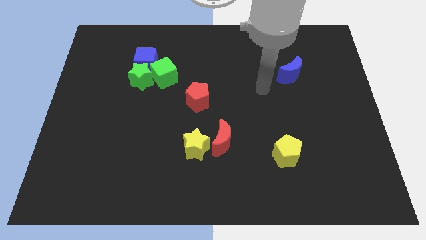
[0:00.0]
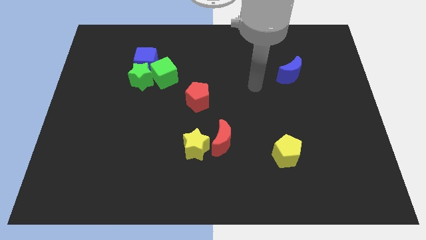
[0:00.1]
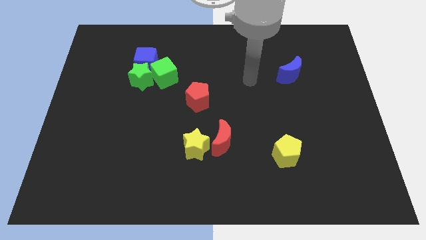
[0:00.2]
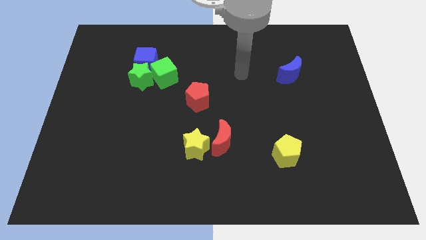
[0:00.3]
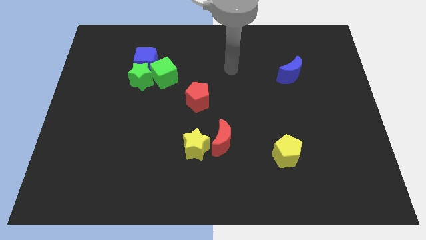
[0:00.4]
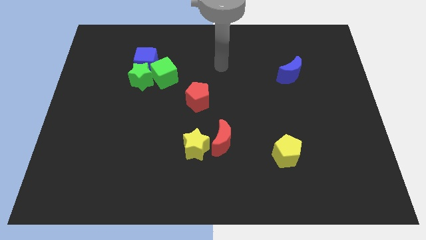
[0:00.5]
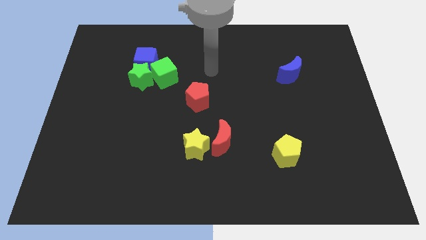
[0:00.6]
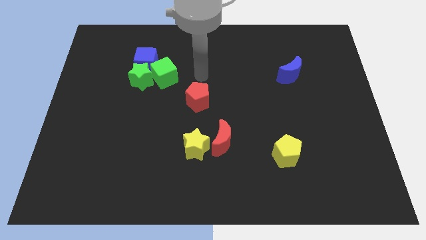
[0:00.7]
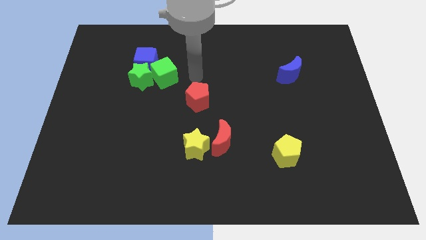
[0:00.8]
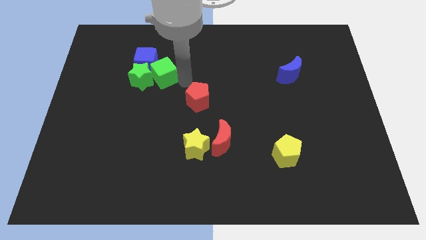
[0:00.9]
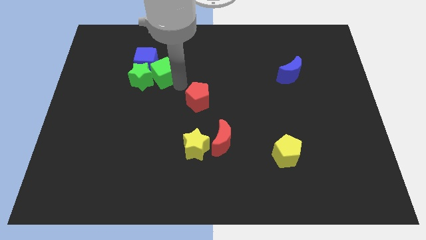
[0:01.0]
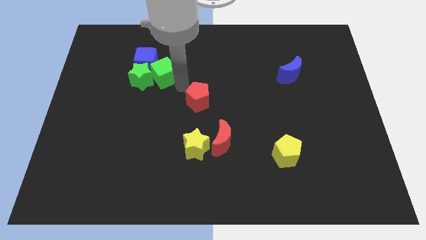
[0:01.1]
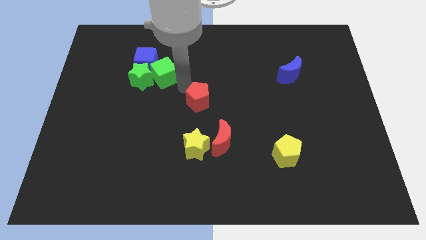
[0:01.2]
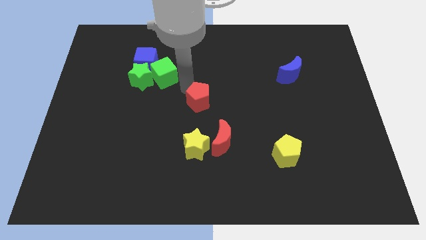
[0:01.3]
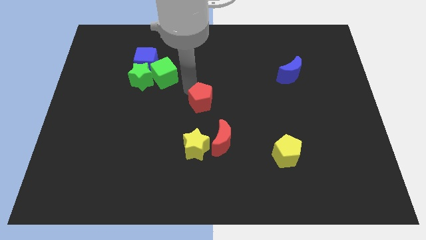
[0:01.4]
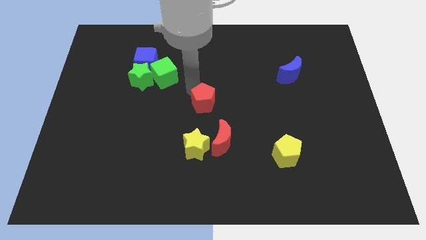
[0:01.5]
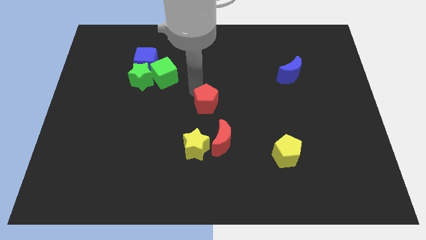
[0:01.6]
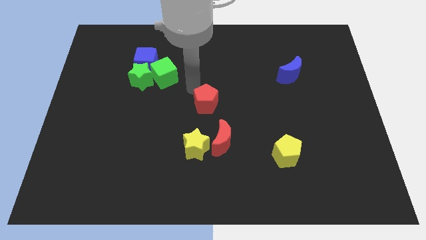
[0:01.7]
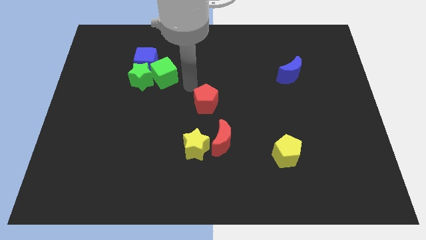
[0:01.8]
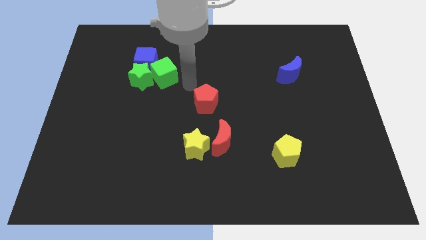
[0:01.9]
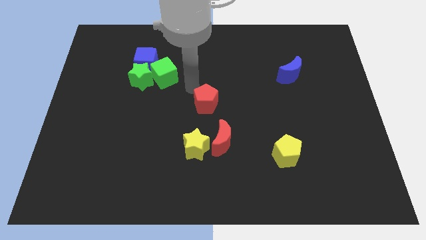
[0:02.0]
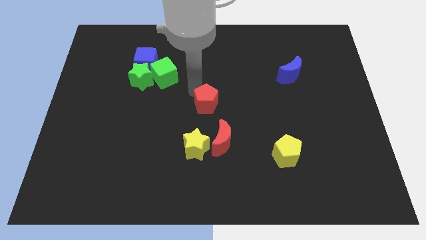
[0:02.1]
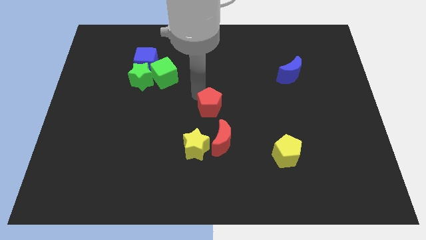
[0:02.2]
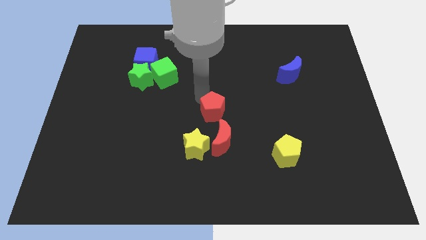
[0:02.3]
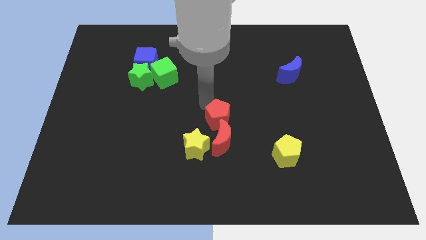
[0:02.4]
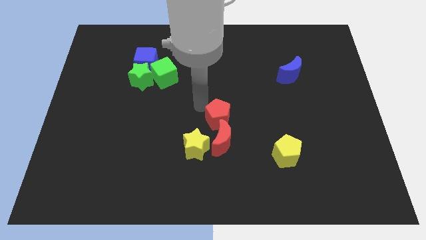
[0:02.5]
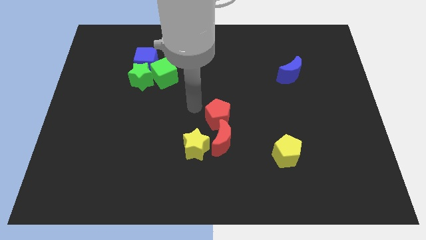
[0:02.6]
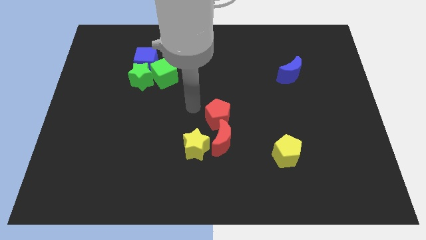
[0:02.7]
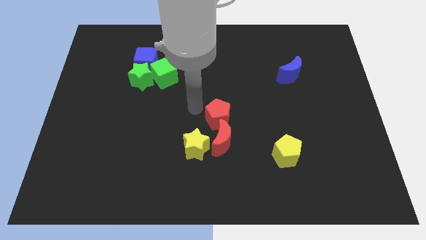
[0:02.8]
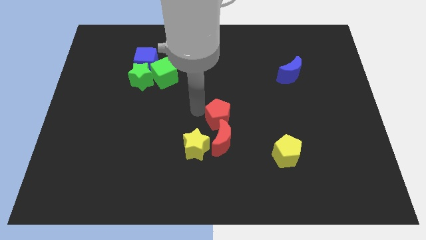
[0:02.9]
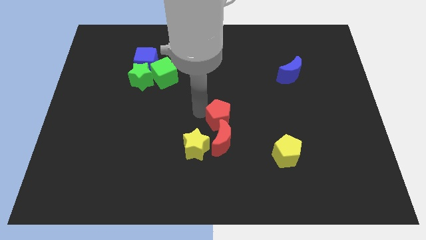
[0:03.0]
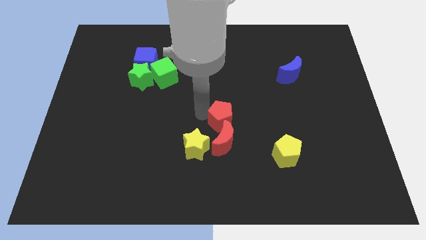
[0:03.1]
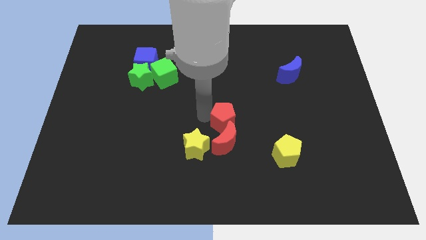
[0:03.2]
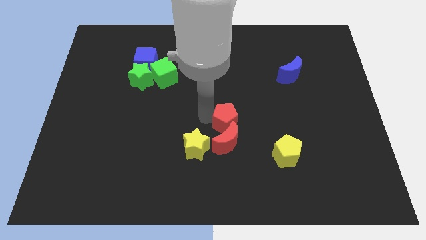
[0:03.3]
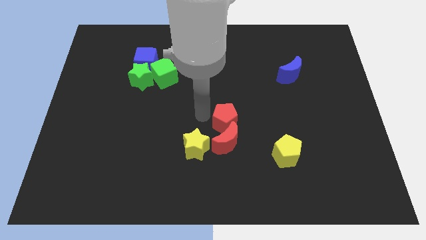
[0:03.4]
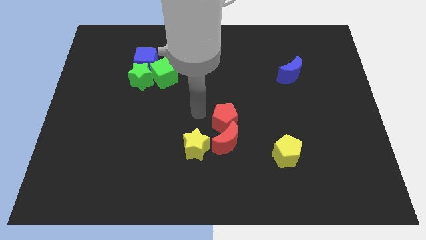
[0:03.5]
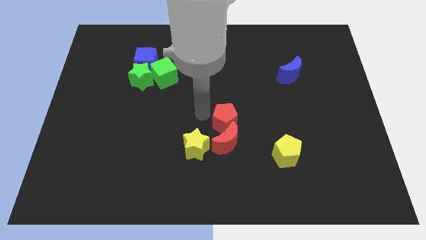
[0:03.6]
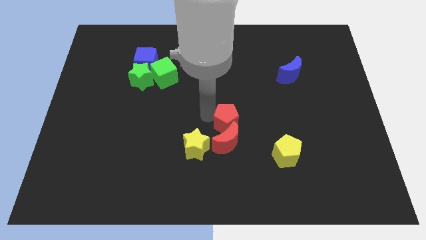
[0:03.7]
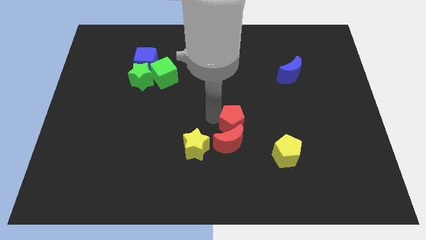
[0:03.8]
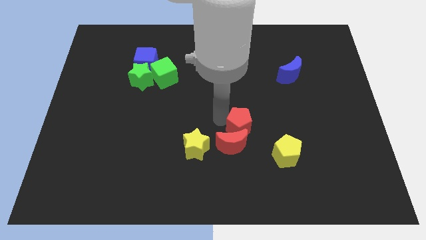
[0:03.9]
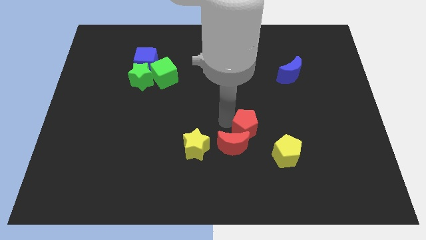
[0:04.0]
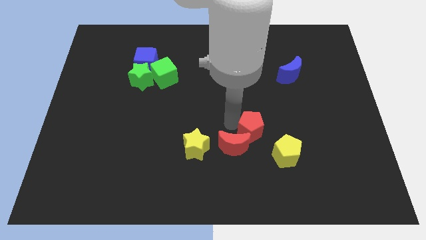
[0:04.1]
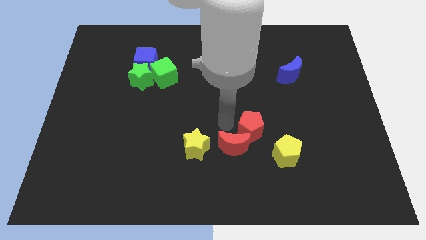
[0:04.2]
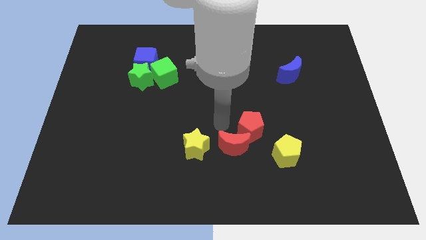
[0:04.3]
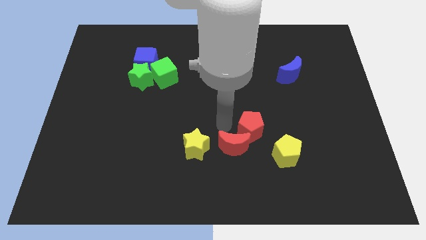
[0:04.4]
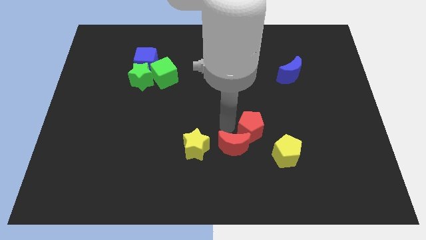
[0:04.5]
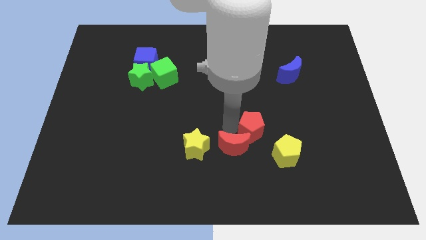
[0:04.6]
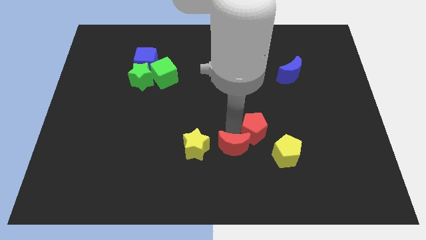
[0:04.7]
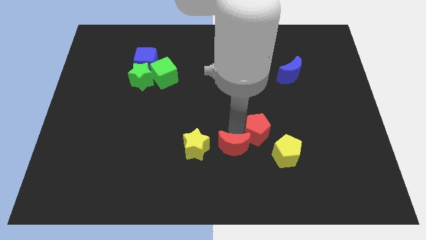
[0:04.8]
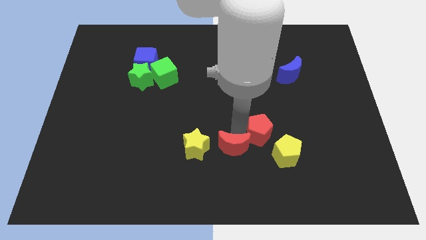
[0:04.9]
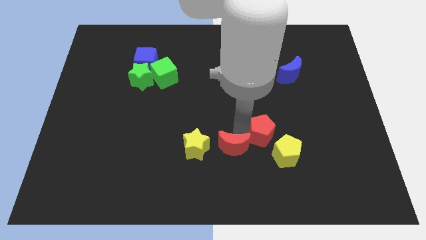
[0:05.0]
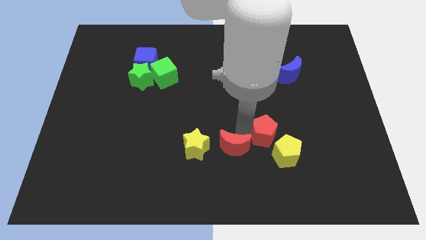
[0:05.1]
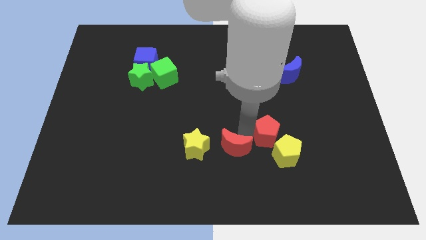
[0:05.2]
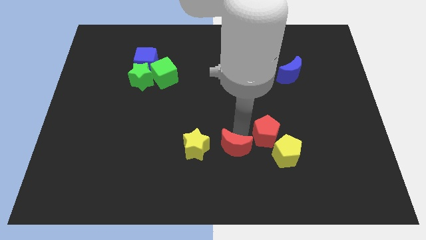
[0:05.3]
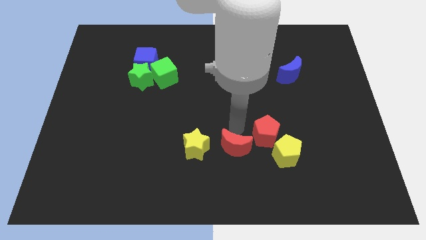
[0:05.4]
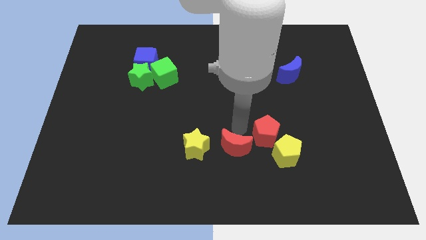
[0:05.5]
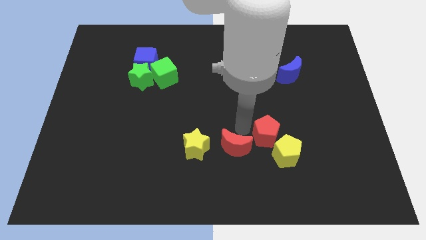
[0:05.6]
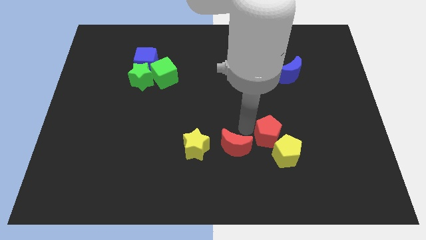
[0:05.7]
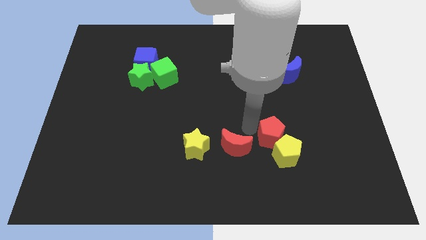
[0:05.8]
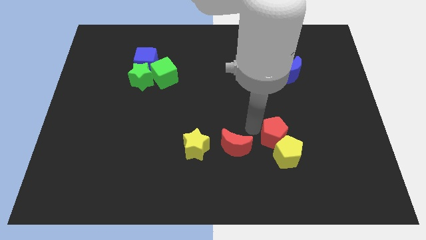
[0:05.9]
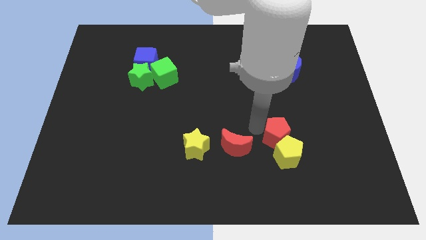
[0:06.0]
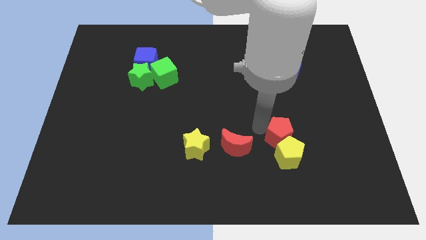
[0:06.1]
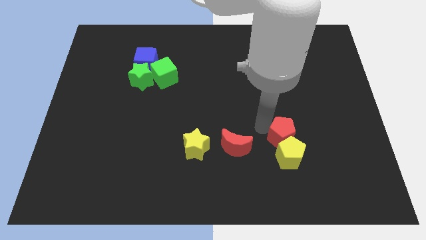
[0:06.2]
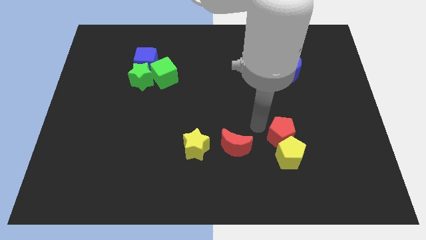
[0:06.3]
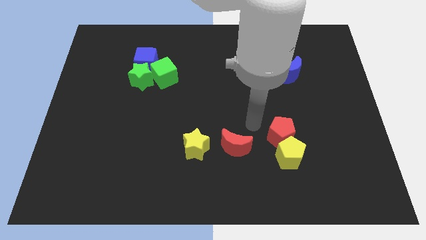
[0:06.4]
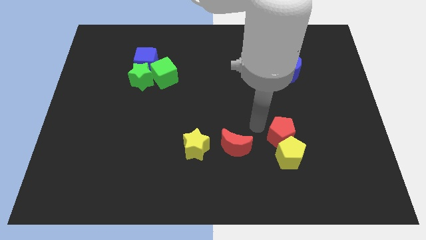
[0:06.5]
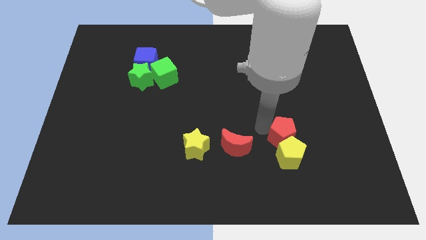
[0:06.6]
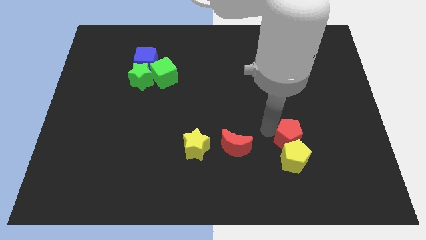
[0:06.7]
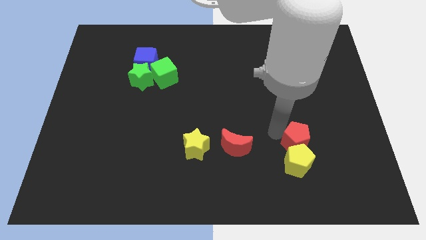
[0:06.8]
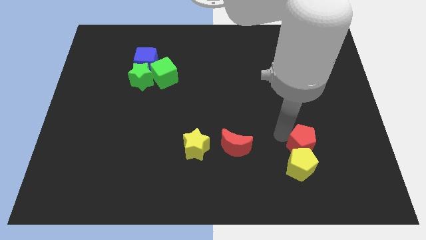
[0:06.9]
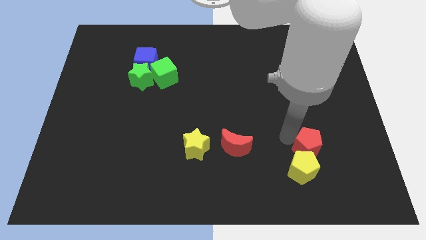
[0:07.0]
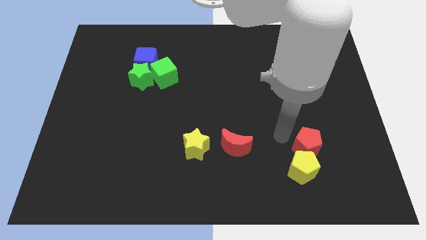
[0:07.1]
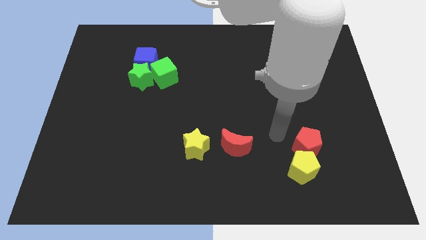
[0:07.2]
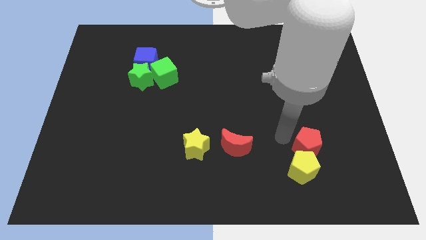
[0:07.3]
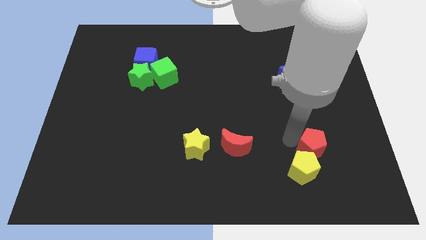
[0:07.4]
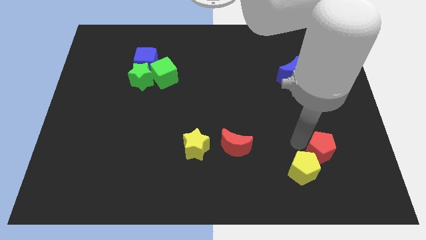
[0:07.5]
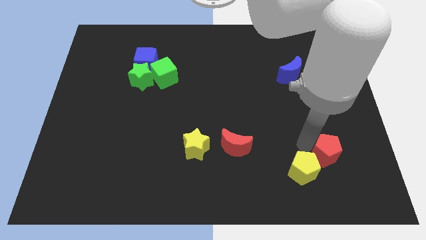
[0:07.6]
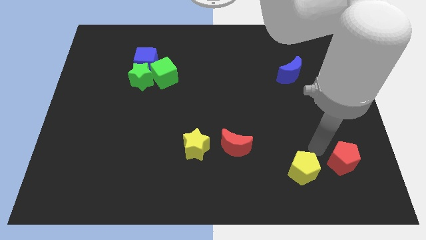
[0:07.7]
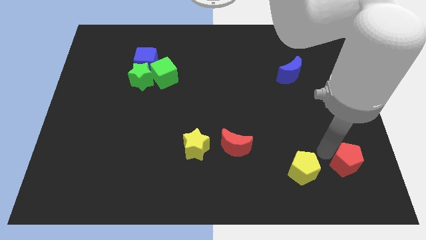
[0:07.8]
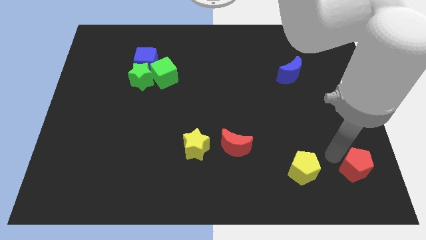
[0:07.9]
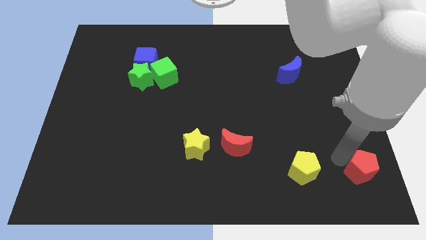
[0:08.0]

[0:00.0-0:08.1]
put the red pentagon to the bottom right corner
